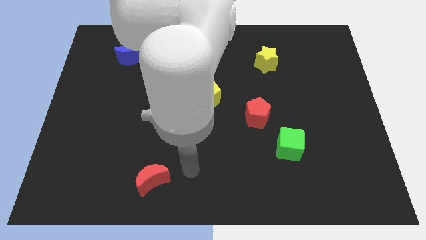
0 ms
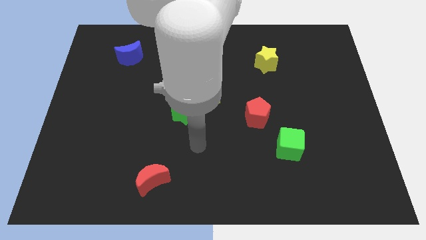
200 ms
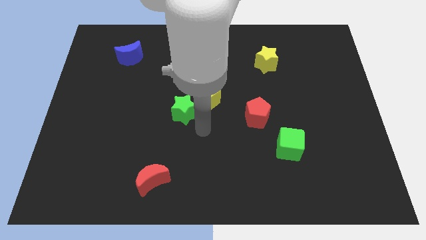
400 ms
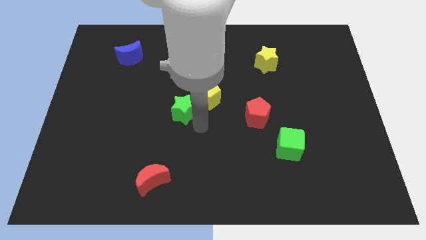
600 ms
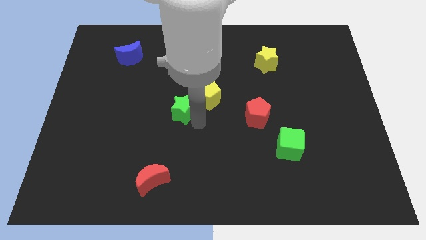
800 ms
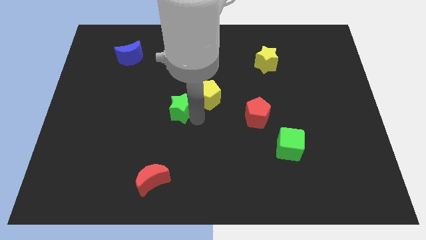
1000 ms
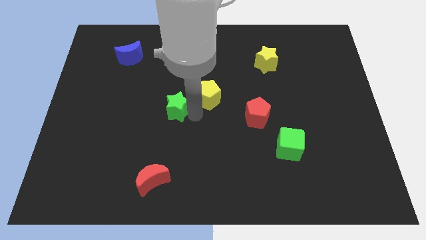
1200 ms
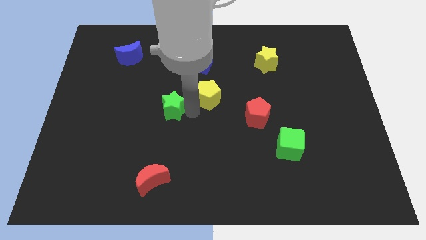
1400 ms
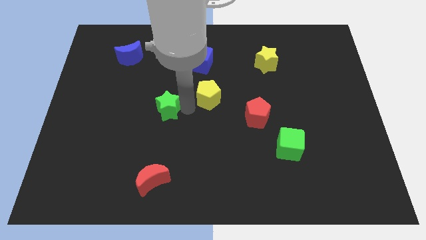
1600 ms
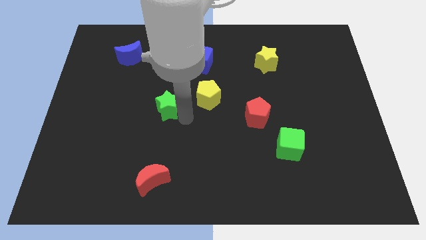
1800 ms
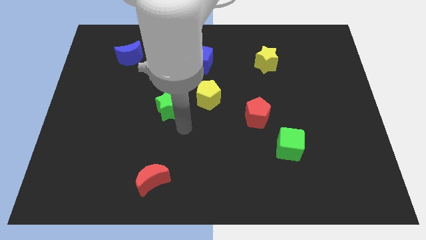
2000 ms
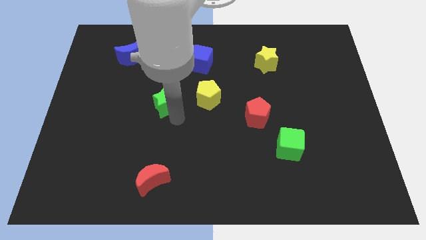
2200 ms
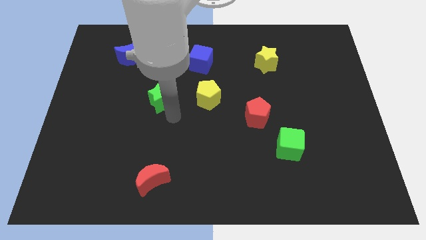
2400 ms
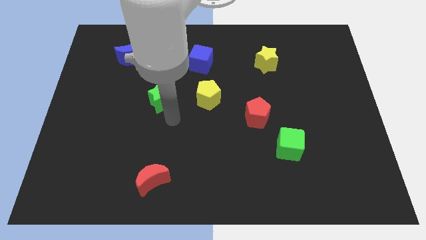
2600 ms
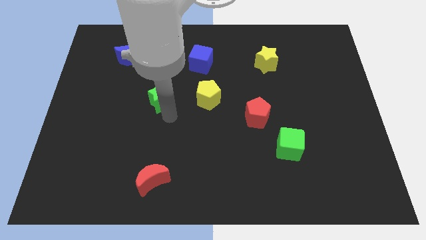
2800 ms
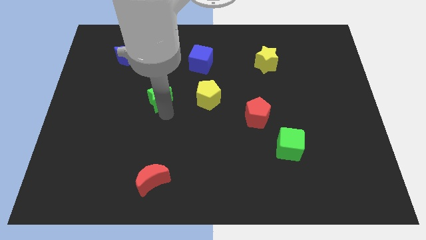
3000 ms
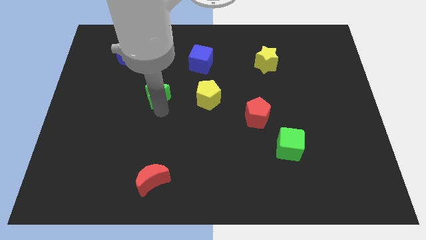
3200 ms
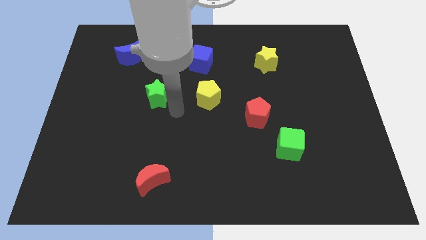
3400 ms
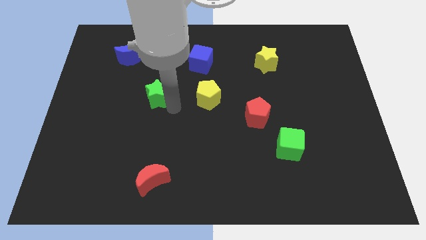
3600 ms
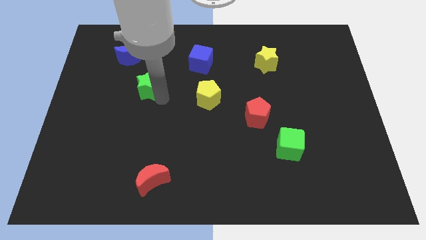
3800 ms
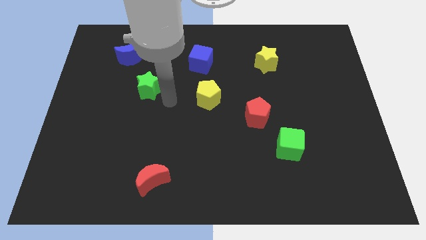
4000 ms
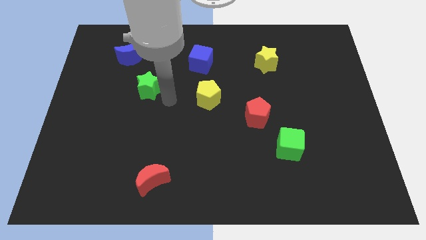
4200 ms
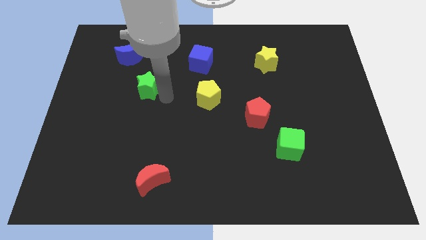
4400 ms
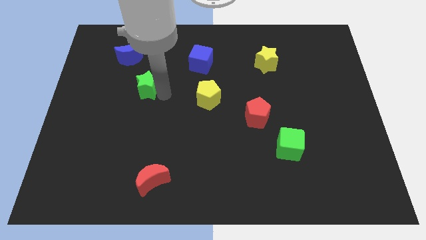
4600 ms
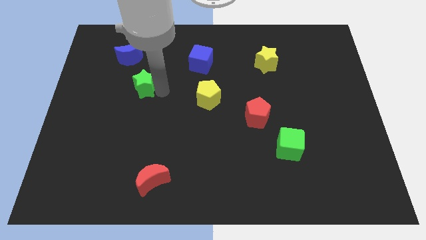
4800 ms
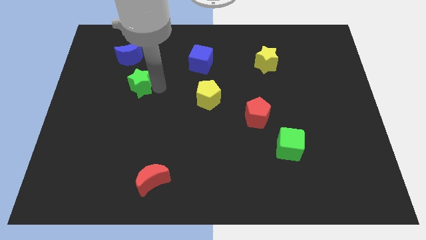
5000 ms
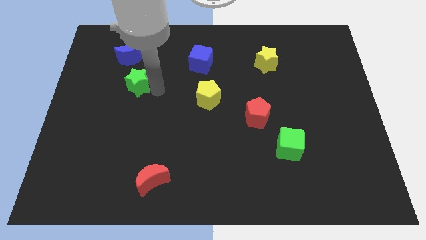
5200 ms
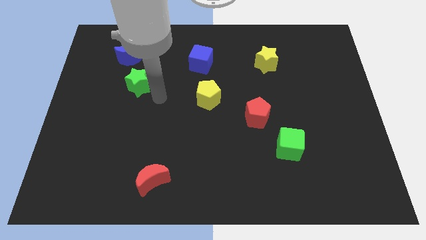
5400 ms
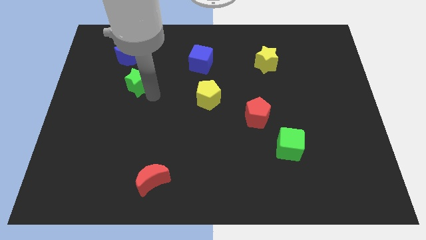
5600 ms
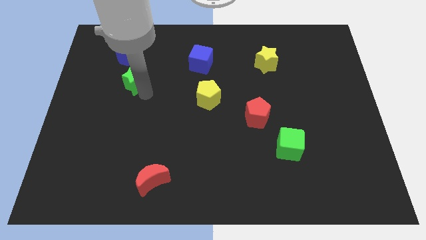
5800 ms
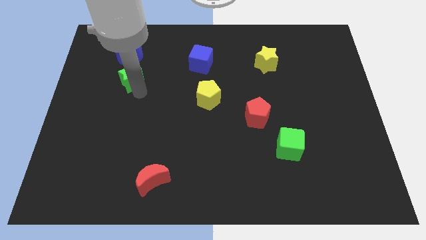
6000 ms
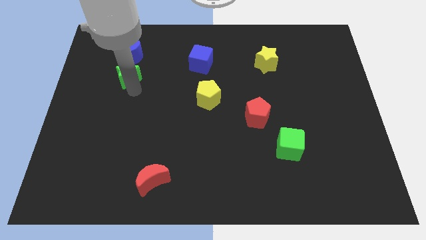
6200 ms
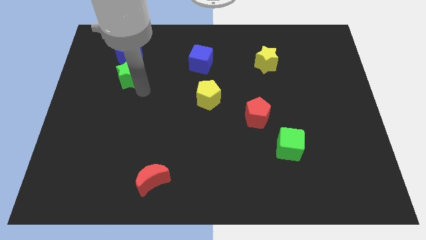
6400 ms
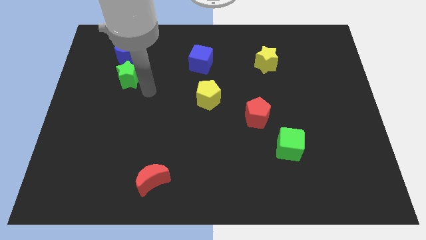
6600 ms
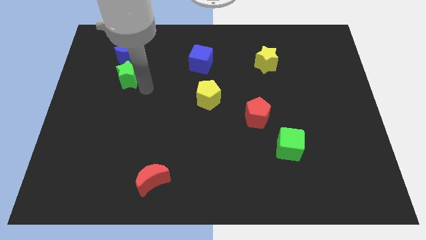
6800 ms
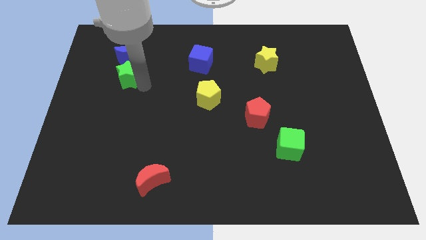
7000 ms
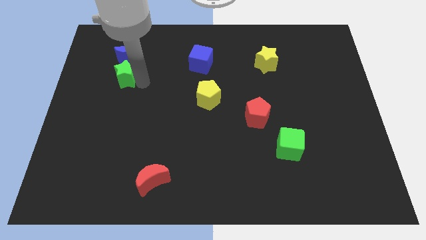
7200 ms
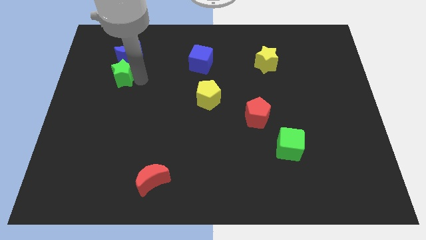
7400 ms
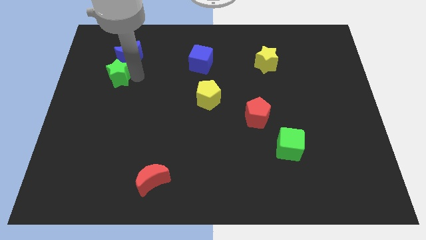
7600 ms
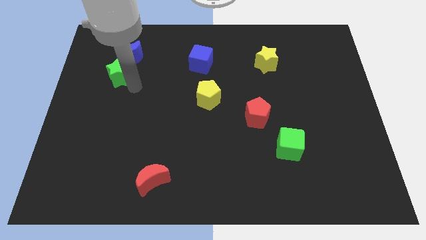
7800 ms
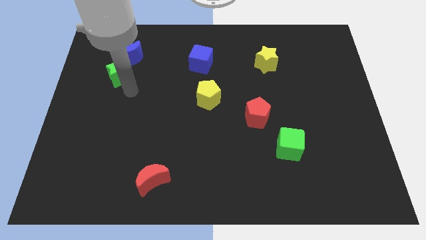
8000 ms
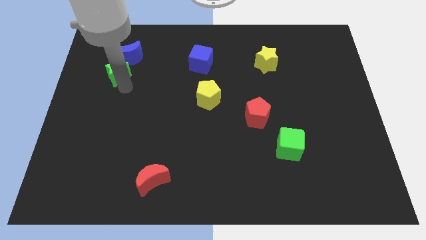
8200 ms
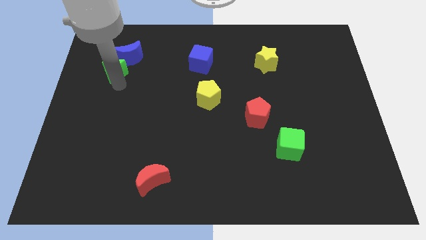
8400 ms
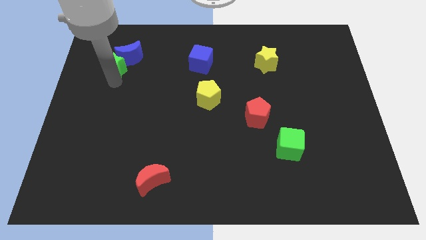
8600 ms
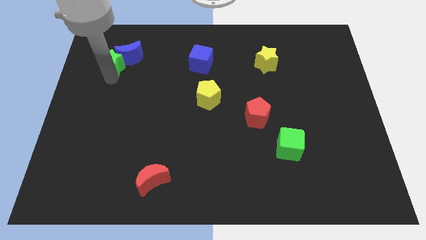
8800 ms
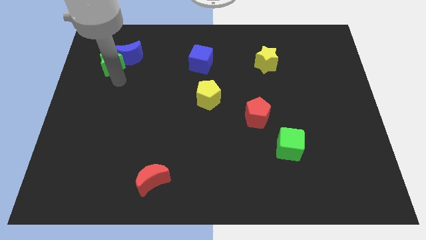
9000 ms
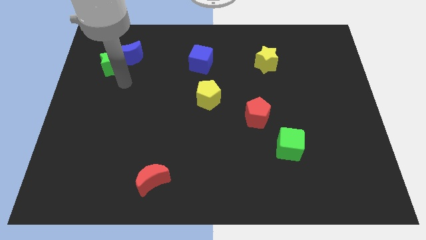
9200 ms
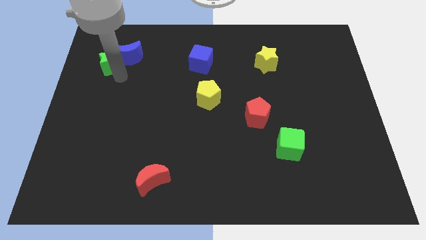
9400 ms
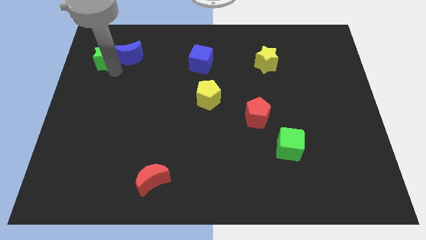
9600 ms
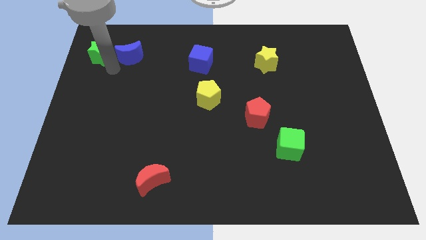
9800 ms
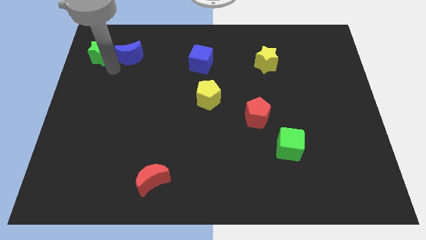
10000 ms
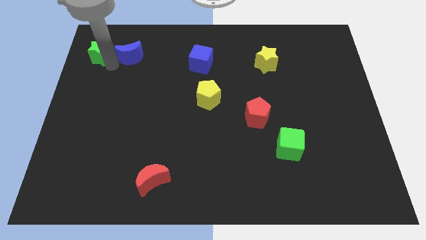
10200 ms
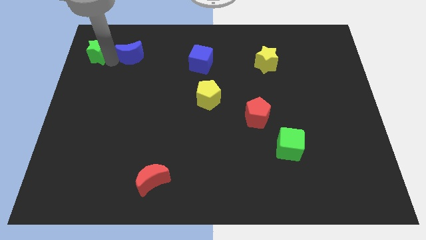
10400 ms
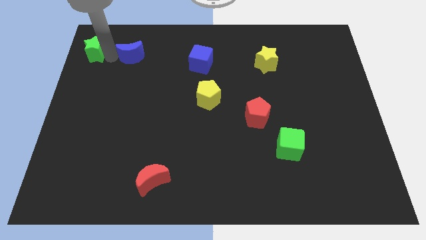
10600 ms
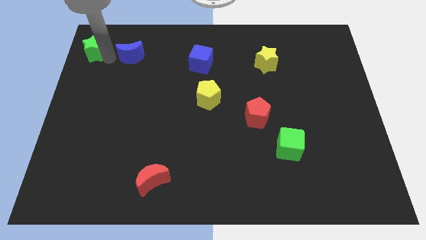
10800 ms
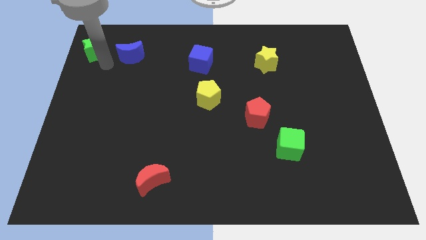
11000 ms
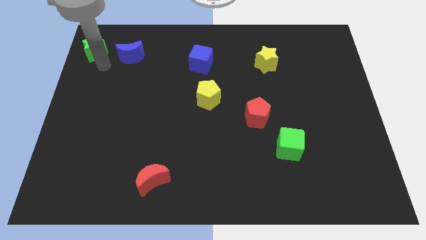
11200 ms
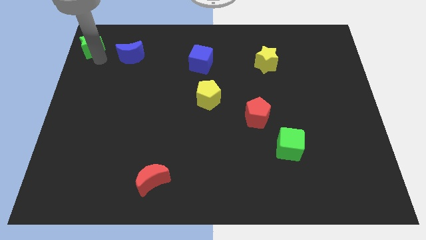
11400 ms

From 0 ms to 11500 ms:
push the green star to the top left of the board

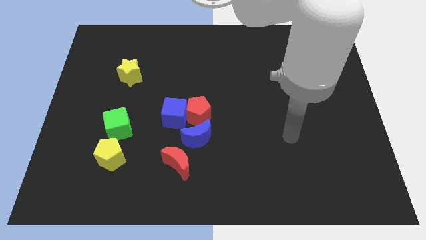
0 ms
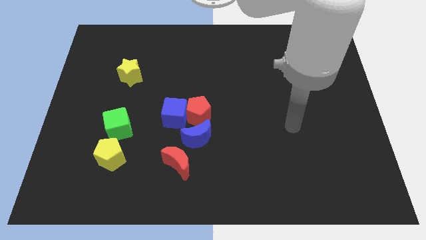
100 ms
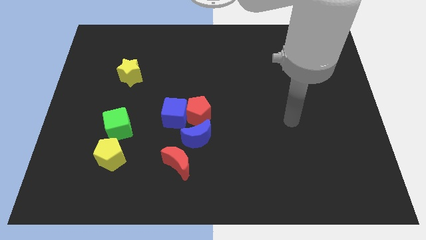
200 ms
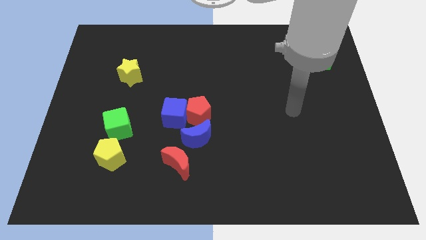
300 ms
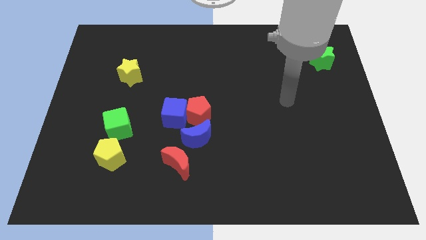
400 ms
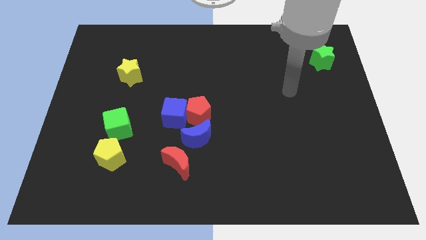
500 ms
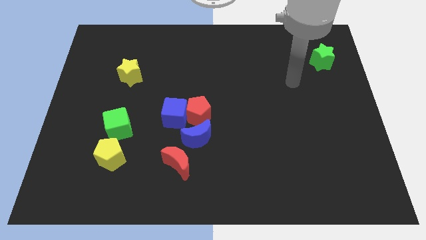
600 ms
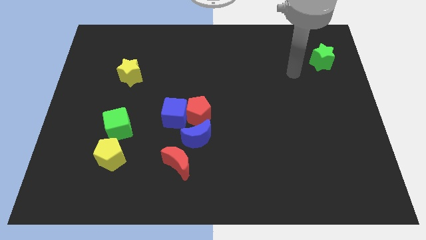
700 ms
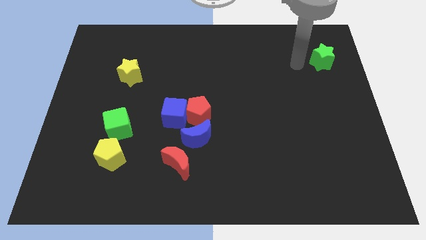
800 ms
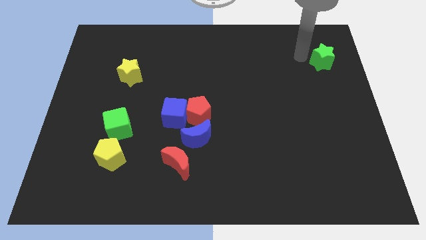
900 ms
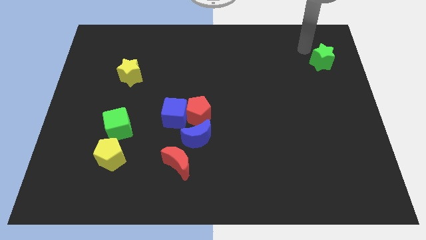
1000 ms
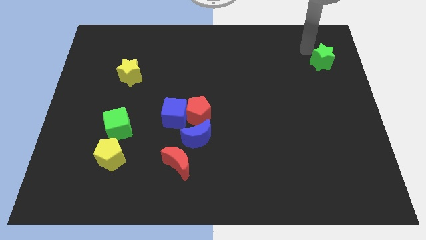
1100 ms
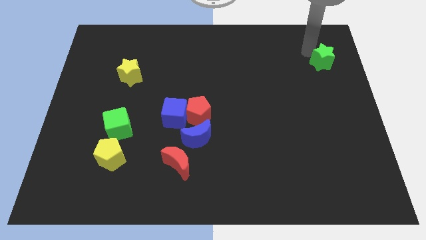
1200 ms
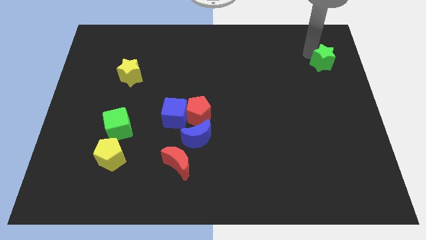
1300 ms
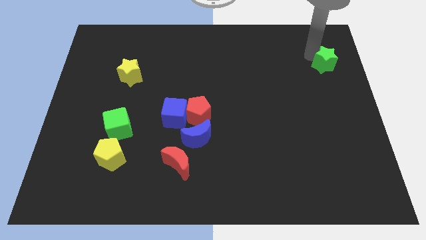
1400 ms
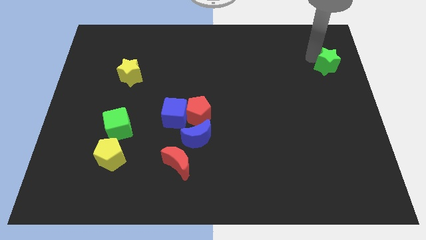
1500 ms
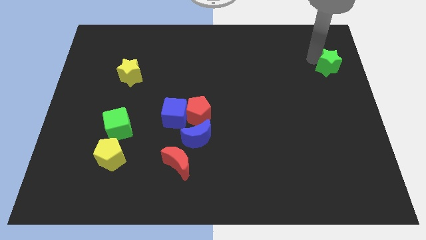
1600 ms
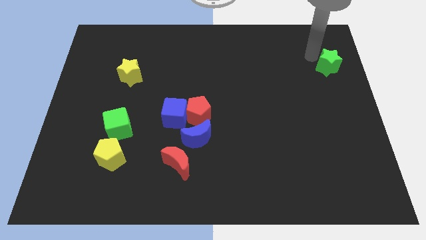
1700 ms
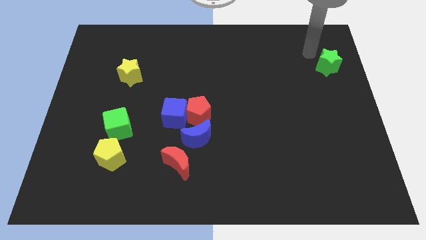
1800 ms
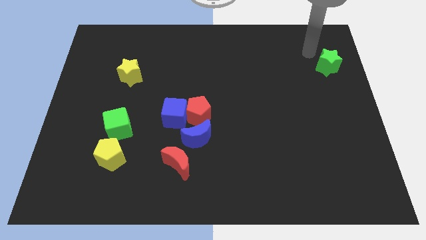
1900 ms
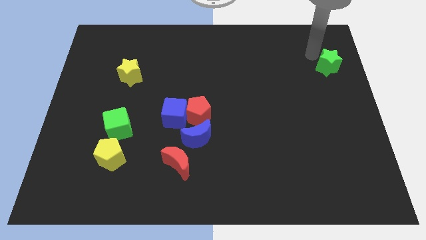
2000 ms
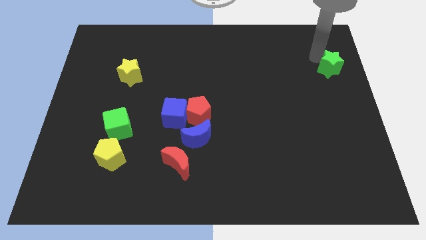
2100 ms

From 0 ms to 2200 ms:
put the green star to the right side
